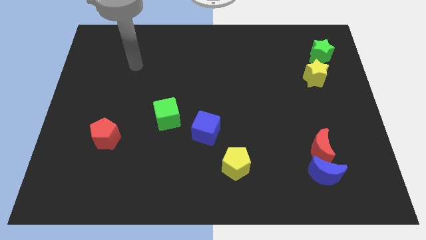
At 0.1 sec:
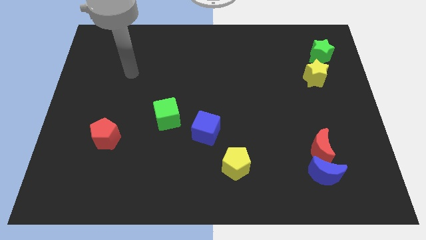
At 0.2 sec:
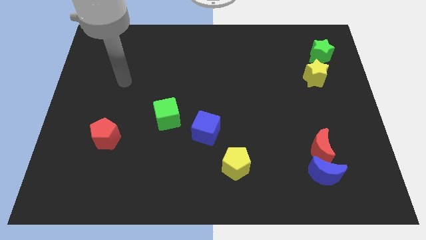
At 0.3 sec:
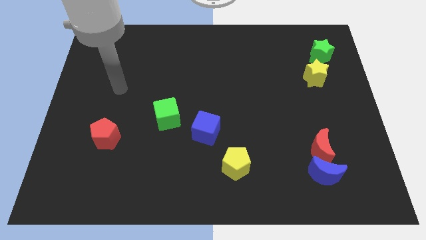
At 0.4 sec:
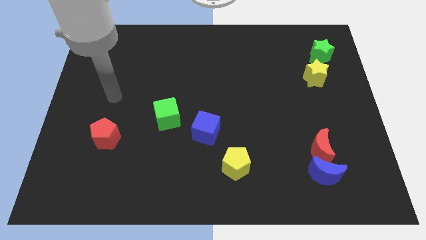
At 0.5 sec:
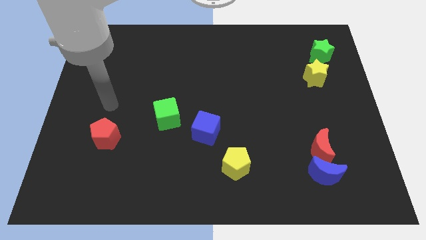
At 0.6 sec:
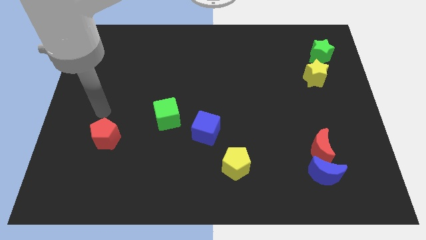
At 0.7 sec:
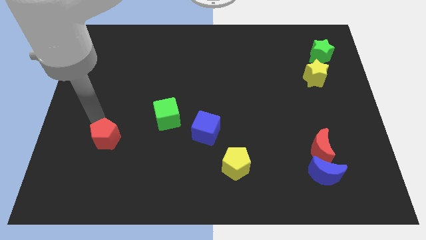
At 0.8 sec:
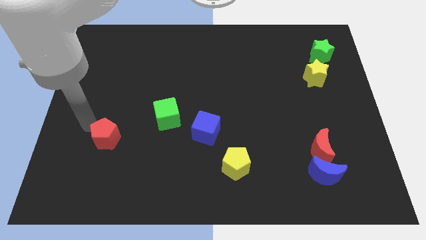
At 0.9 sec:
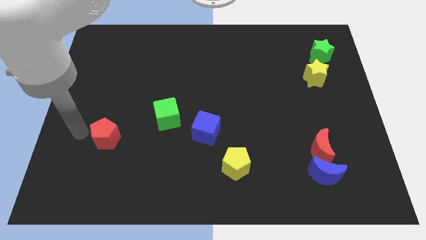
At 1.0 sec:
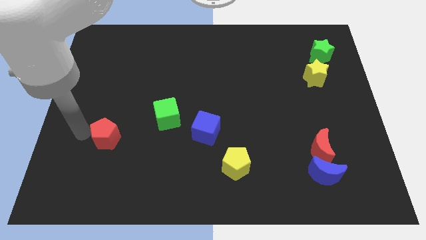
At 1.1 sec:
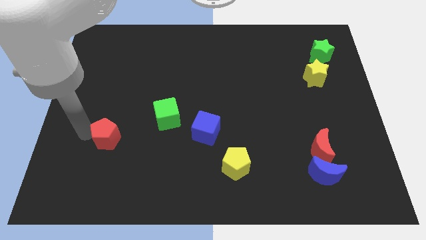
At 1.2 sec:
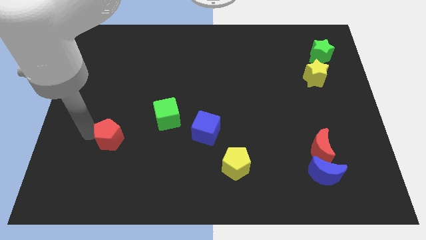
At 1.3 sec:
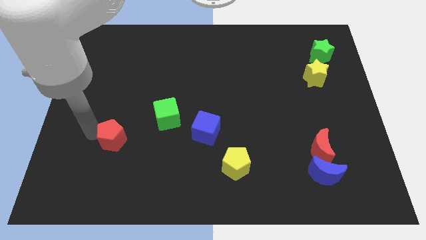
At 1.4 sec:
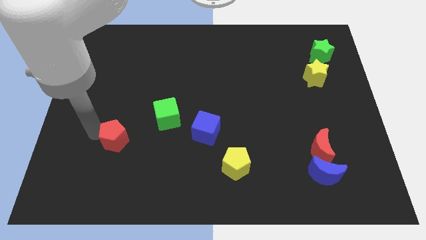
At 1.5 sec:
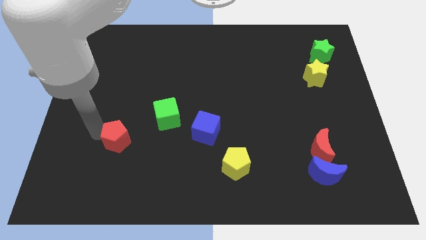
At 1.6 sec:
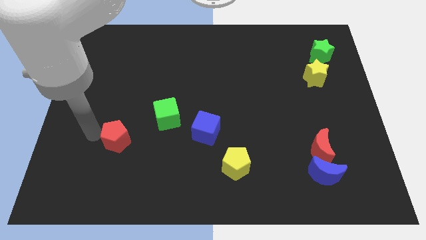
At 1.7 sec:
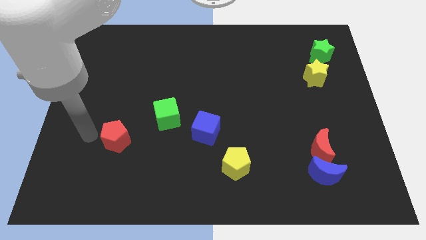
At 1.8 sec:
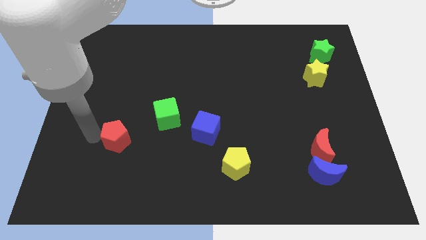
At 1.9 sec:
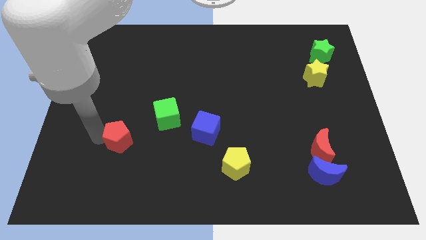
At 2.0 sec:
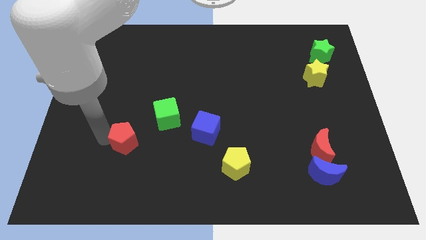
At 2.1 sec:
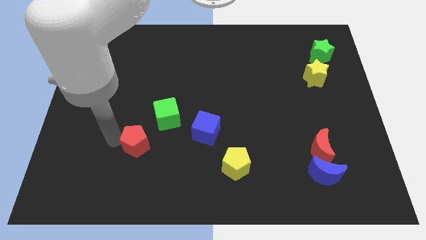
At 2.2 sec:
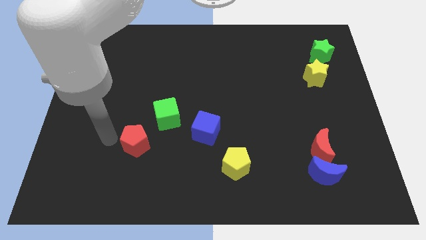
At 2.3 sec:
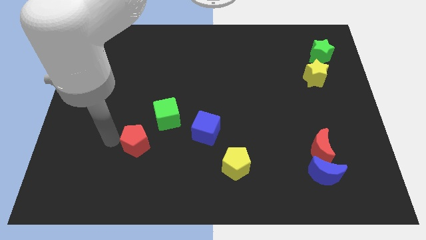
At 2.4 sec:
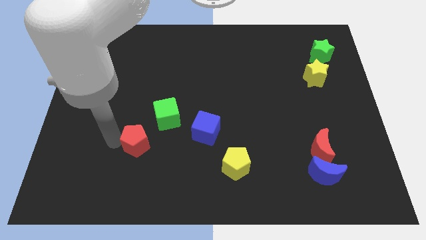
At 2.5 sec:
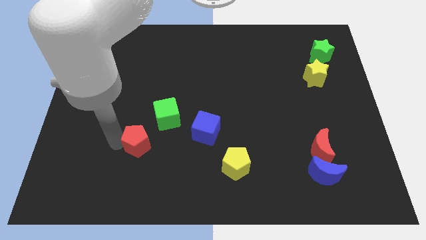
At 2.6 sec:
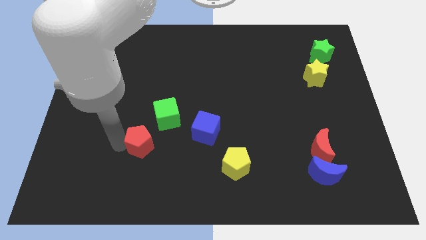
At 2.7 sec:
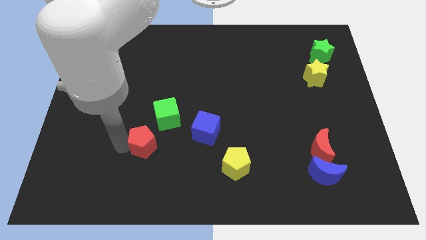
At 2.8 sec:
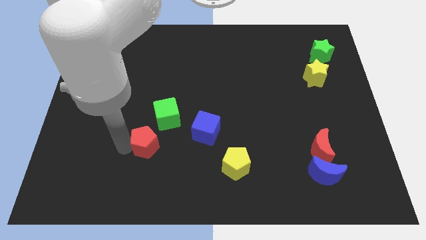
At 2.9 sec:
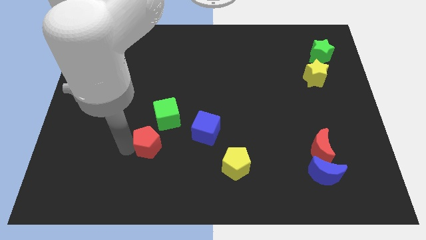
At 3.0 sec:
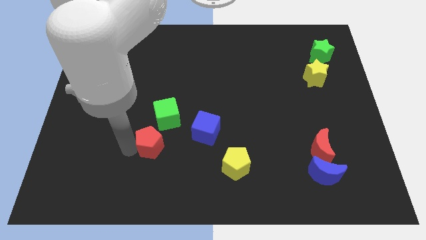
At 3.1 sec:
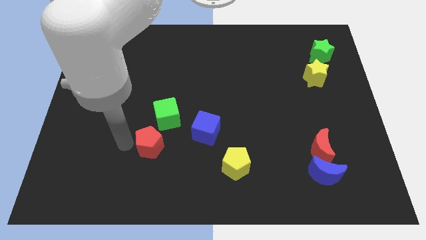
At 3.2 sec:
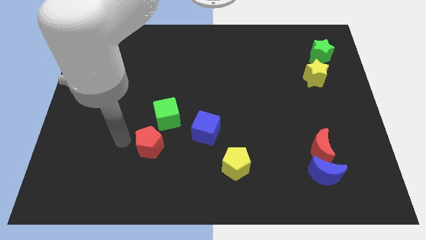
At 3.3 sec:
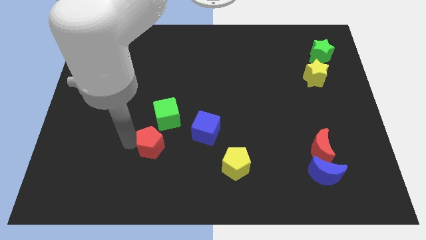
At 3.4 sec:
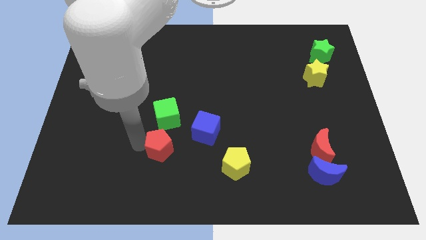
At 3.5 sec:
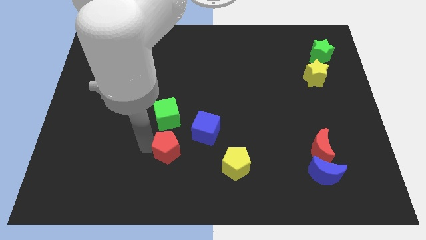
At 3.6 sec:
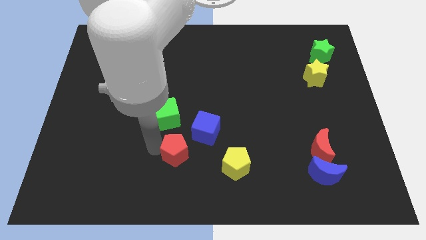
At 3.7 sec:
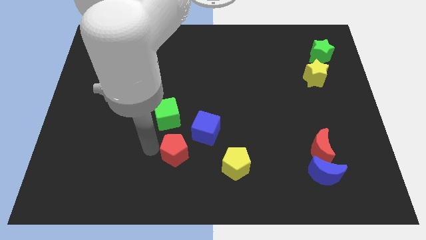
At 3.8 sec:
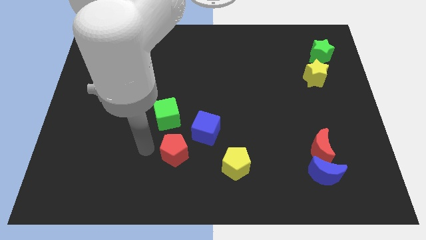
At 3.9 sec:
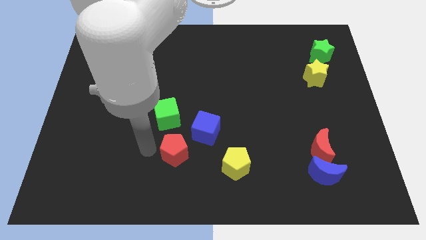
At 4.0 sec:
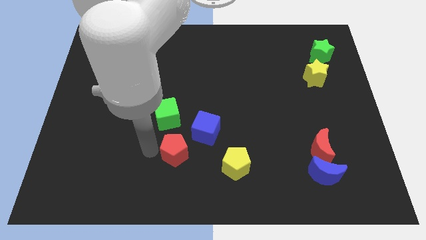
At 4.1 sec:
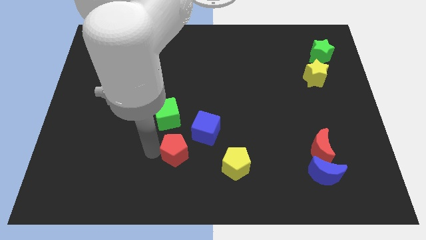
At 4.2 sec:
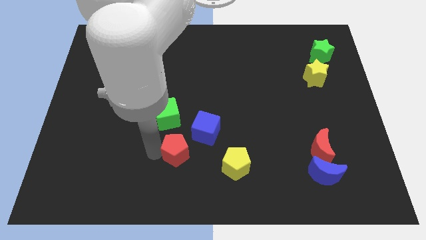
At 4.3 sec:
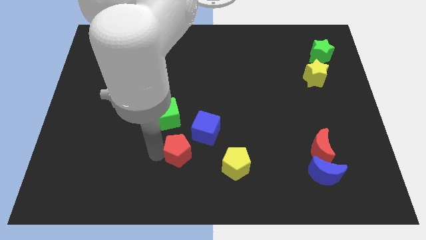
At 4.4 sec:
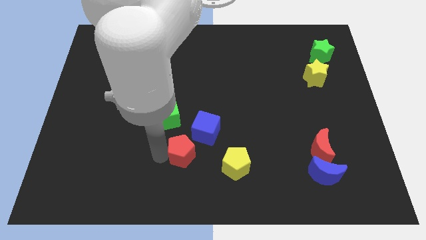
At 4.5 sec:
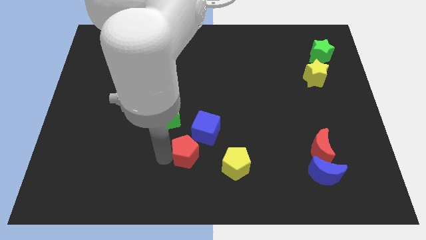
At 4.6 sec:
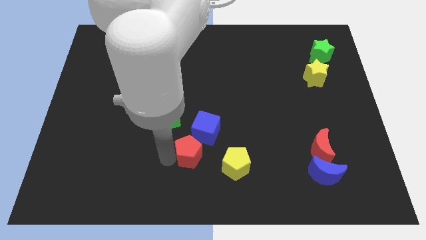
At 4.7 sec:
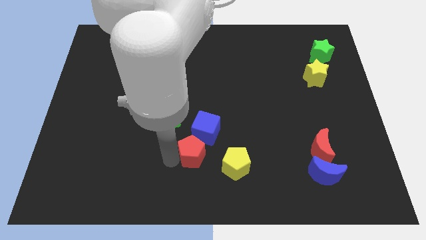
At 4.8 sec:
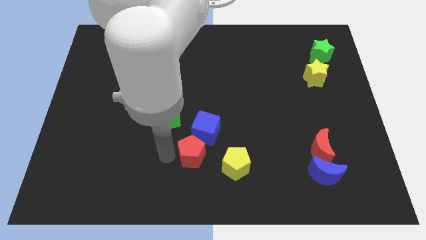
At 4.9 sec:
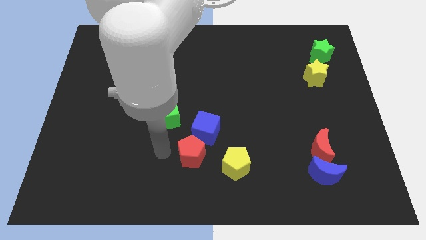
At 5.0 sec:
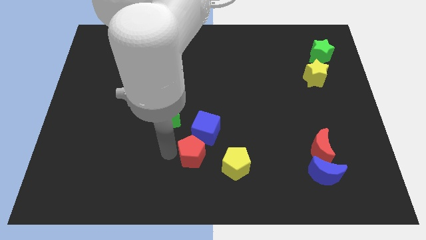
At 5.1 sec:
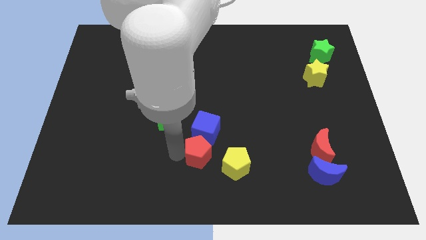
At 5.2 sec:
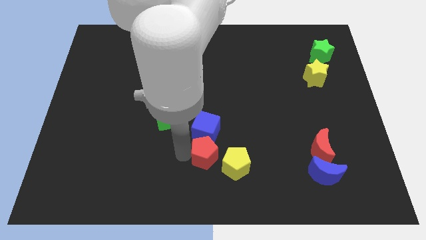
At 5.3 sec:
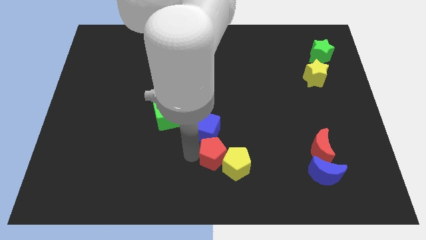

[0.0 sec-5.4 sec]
slide the red pentagon next to the yellow pentagon

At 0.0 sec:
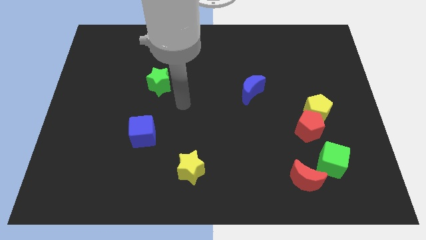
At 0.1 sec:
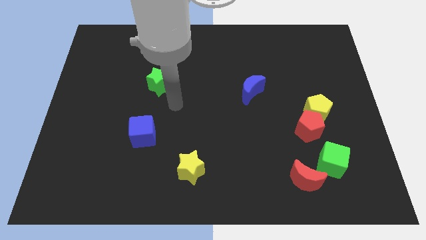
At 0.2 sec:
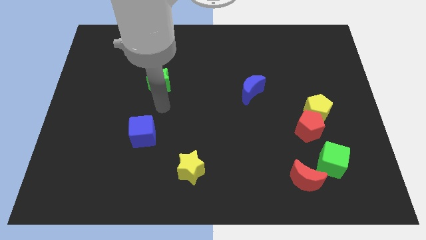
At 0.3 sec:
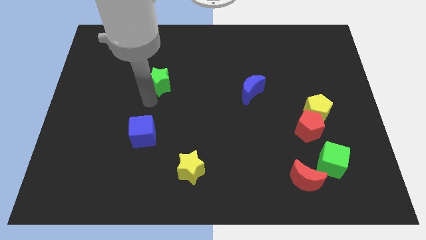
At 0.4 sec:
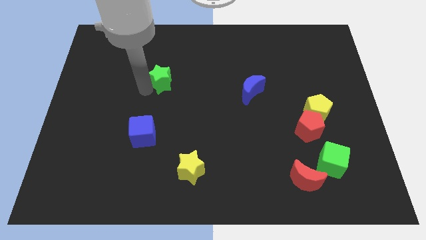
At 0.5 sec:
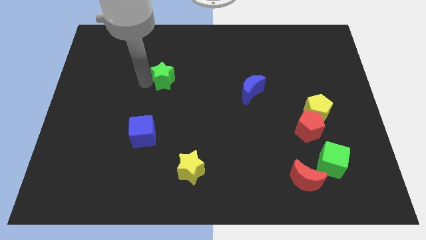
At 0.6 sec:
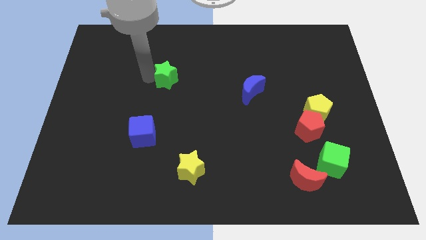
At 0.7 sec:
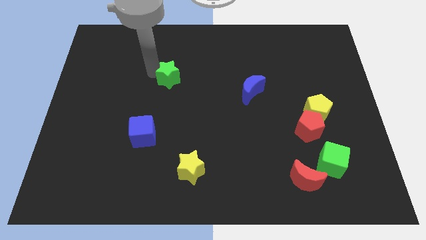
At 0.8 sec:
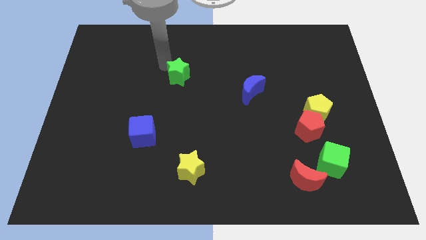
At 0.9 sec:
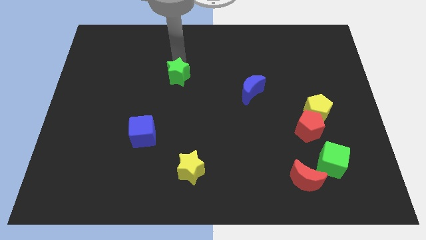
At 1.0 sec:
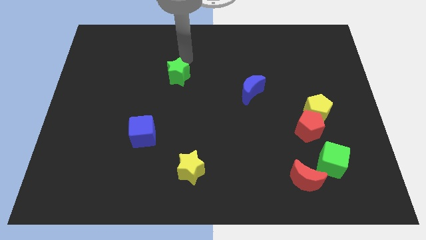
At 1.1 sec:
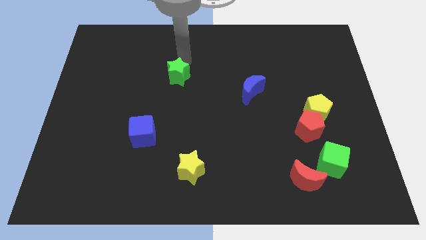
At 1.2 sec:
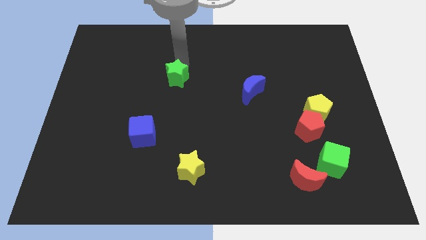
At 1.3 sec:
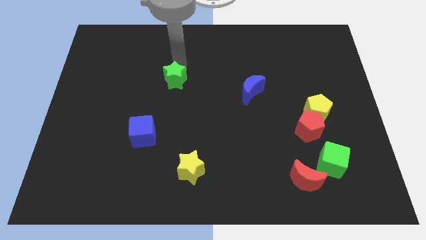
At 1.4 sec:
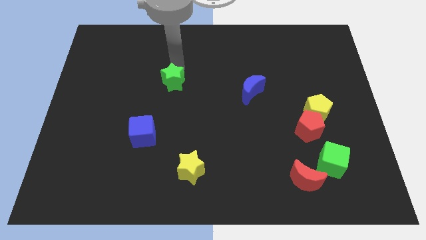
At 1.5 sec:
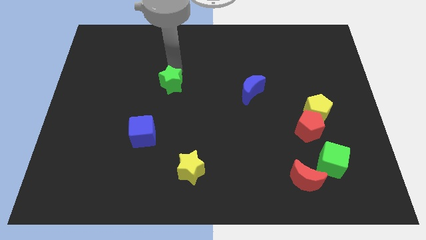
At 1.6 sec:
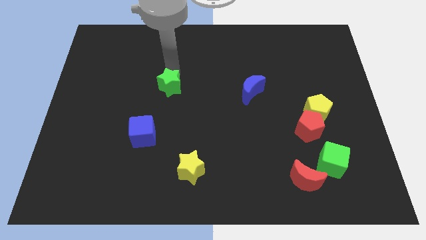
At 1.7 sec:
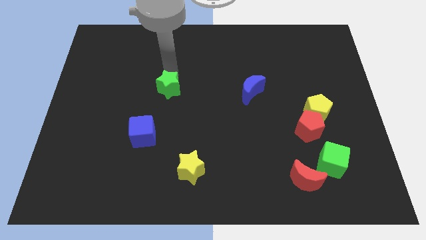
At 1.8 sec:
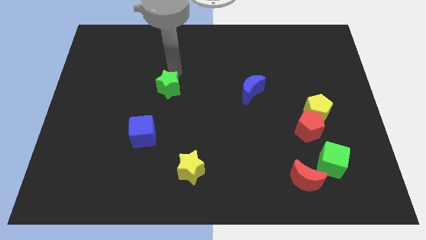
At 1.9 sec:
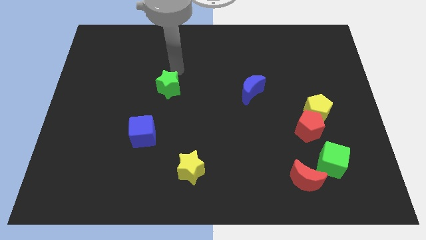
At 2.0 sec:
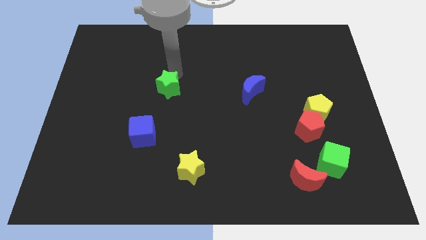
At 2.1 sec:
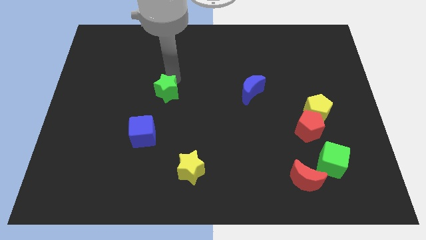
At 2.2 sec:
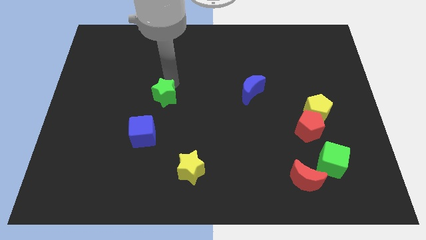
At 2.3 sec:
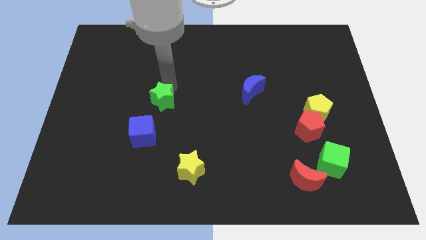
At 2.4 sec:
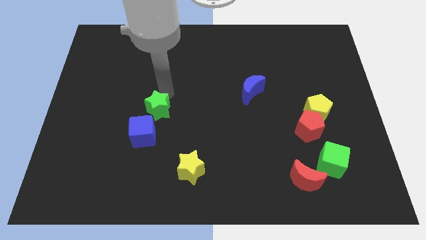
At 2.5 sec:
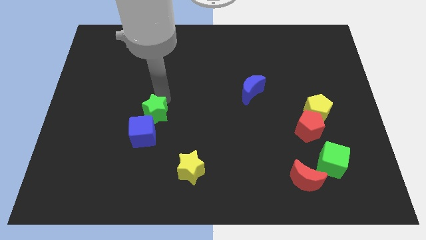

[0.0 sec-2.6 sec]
put the green star towards the blue cube
